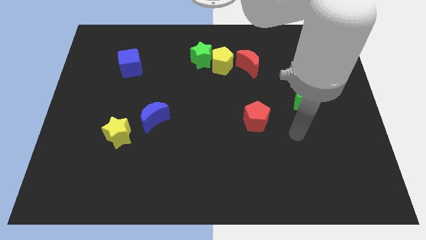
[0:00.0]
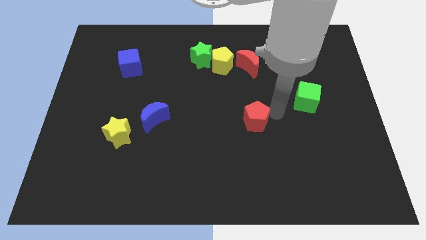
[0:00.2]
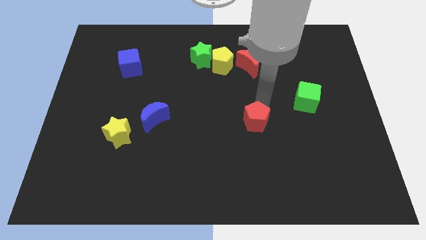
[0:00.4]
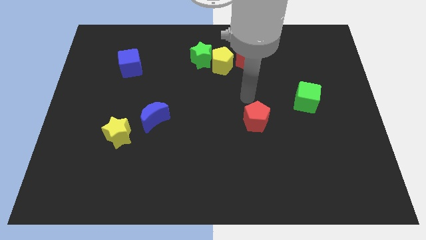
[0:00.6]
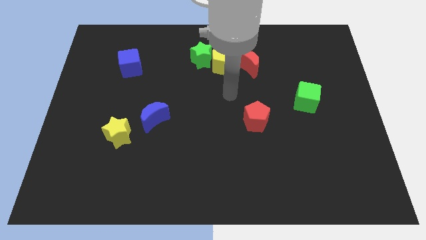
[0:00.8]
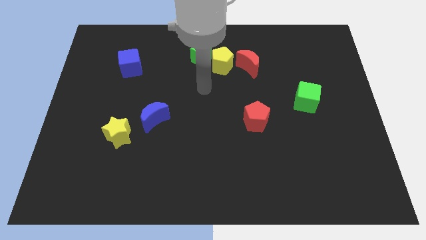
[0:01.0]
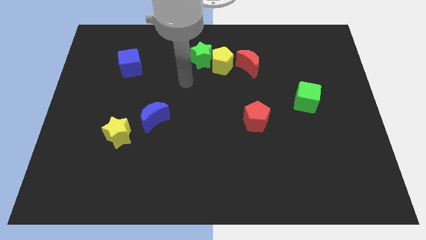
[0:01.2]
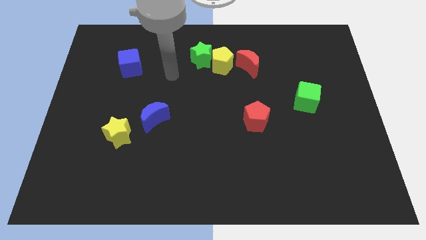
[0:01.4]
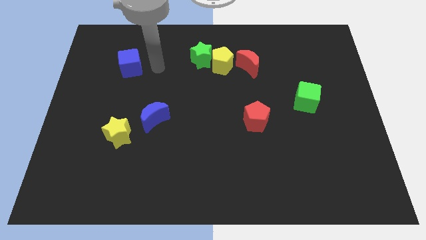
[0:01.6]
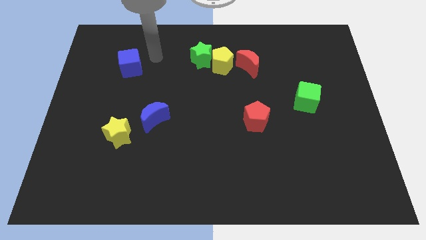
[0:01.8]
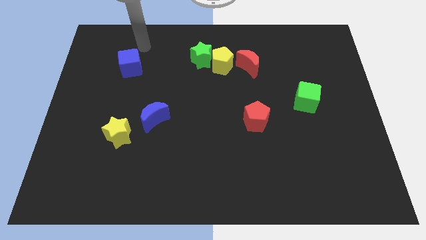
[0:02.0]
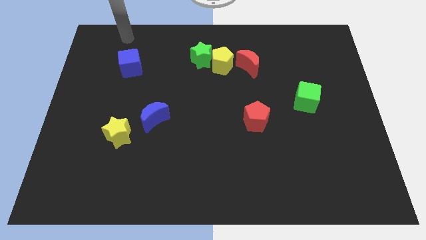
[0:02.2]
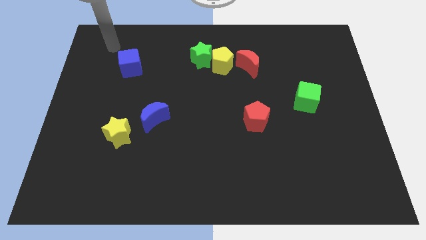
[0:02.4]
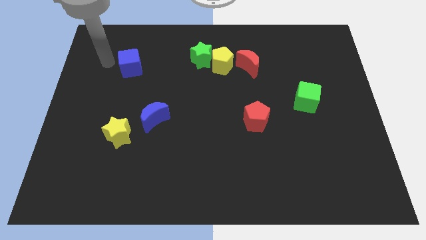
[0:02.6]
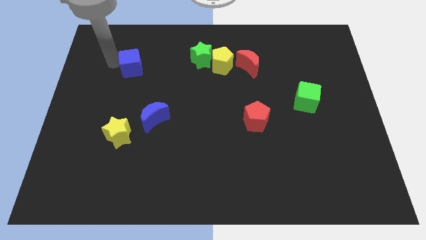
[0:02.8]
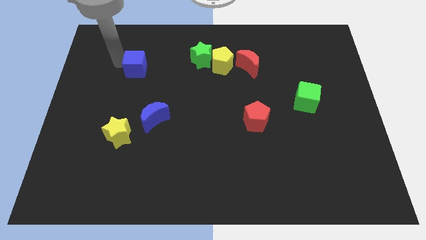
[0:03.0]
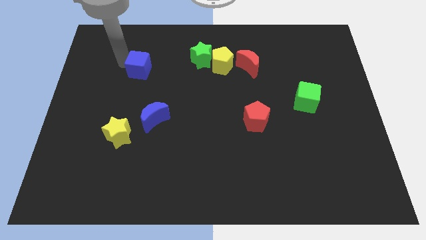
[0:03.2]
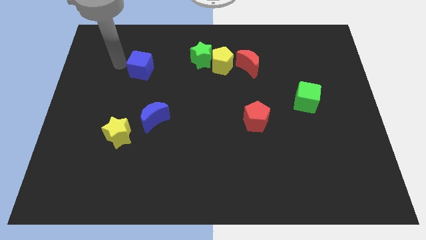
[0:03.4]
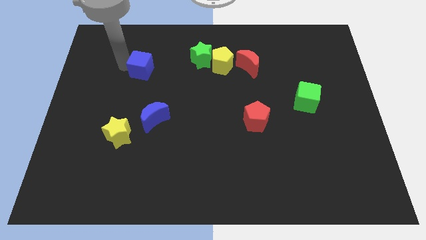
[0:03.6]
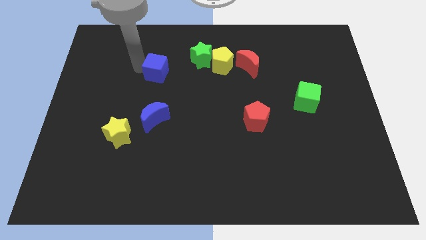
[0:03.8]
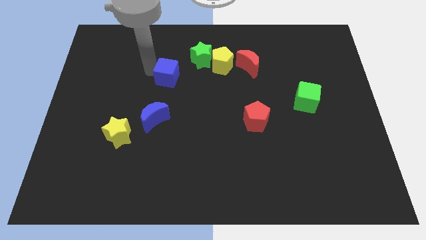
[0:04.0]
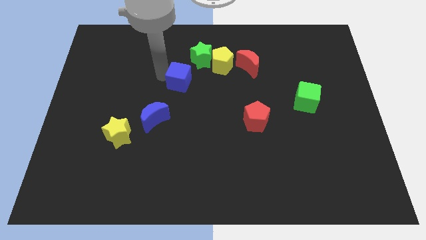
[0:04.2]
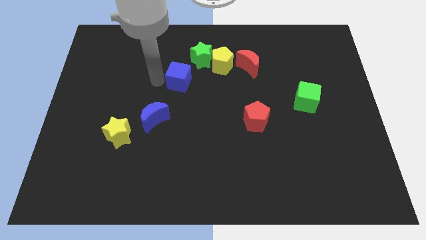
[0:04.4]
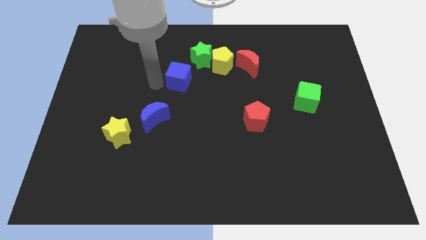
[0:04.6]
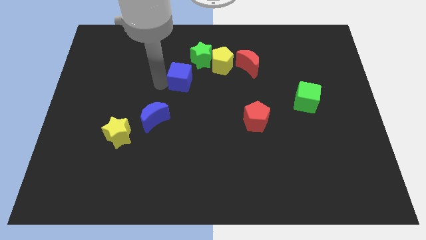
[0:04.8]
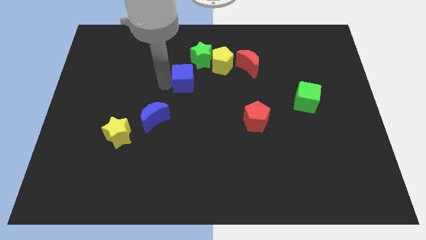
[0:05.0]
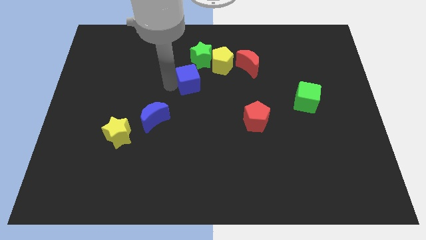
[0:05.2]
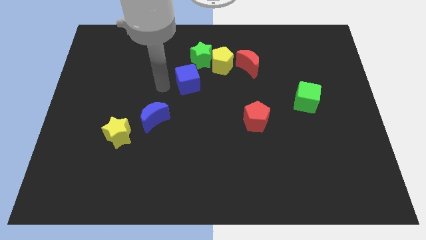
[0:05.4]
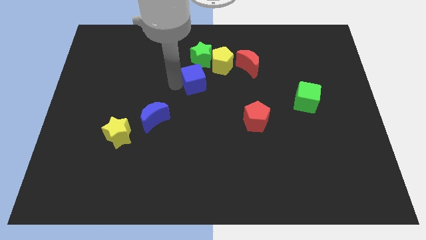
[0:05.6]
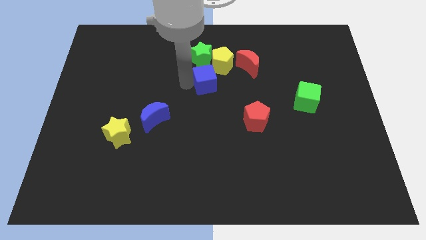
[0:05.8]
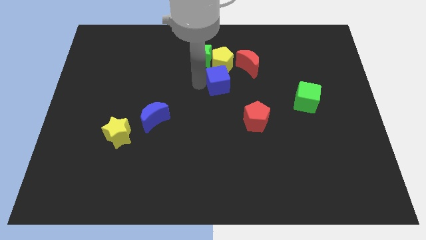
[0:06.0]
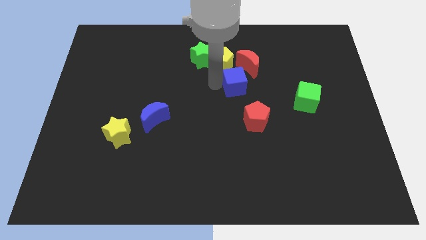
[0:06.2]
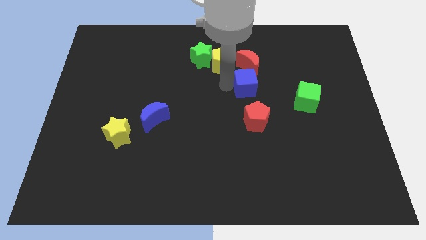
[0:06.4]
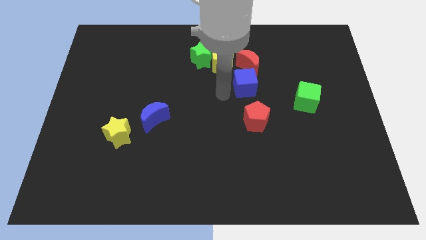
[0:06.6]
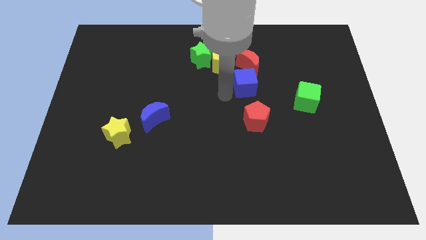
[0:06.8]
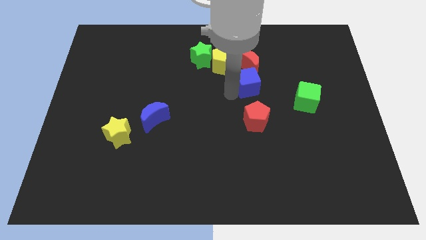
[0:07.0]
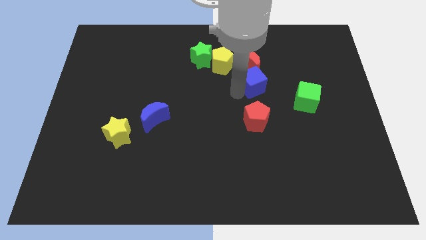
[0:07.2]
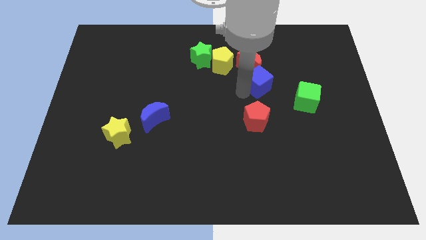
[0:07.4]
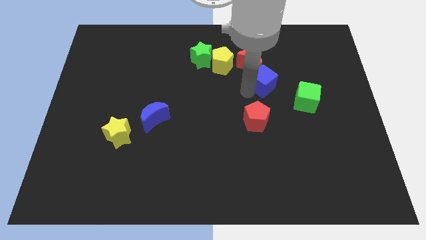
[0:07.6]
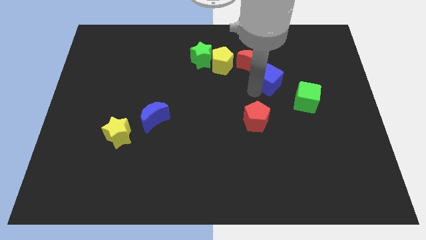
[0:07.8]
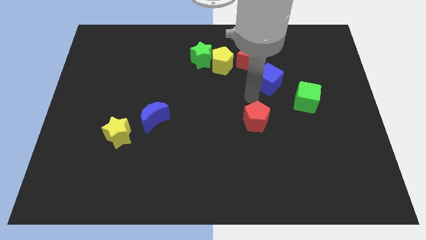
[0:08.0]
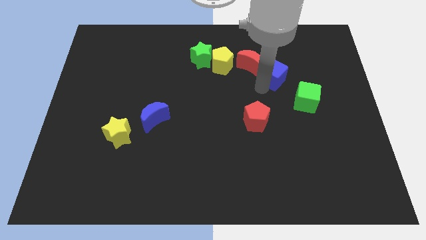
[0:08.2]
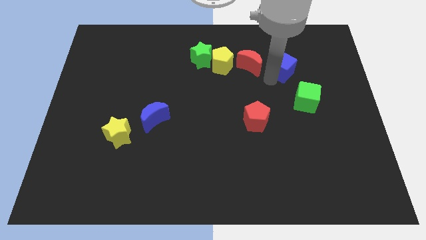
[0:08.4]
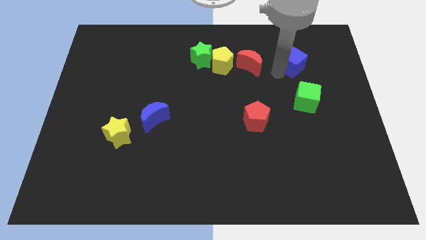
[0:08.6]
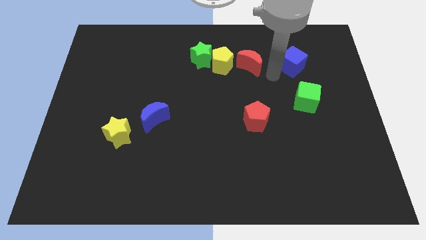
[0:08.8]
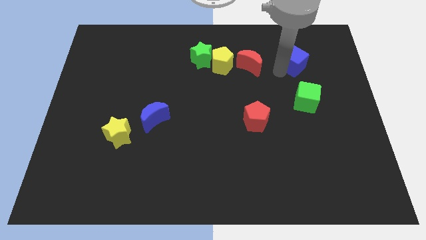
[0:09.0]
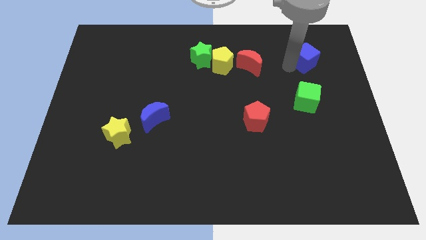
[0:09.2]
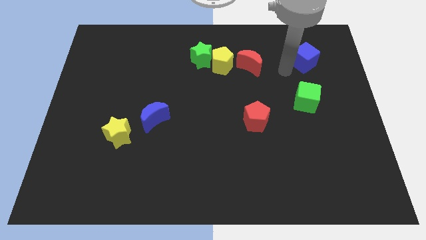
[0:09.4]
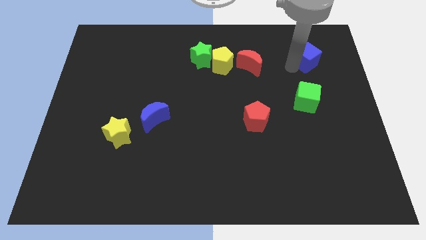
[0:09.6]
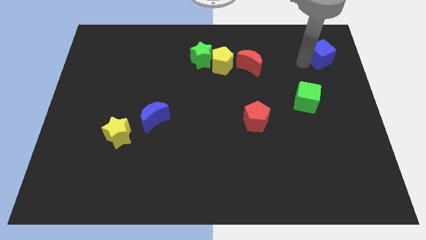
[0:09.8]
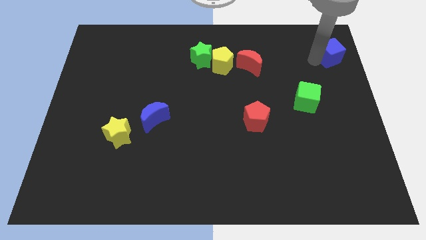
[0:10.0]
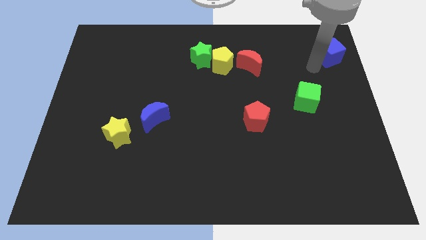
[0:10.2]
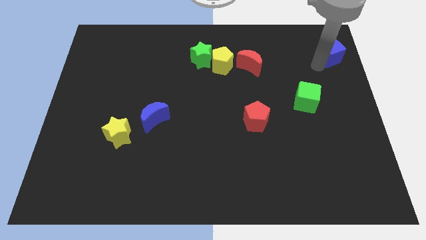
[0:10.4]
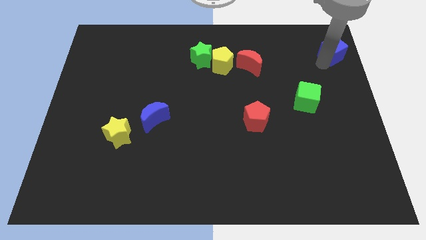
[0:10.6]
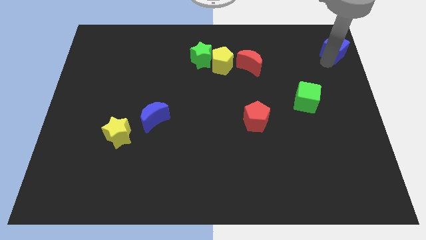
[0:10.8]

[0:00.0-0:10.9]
put the blue cube to the top right of the board

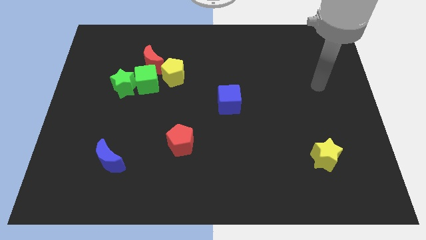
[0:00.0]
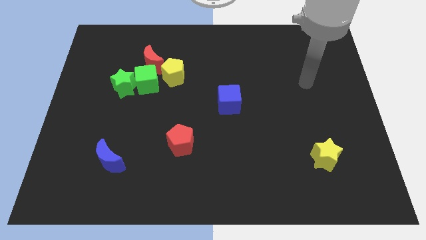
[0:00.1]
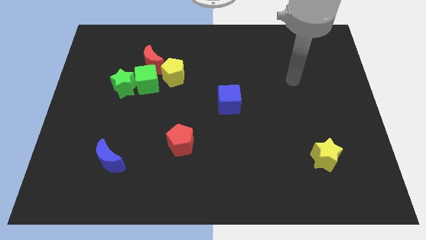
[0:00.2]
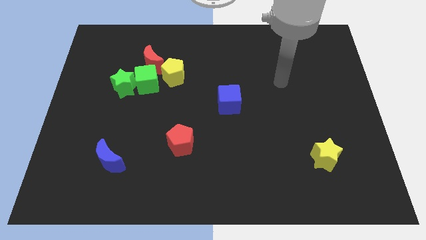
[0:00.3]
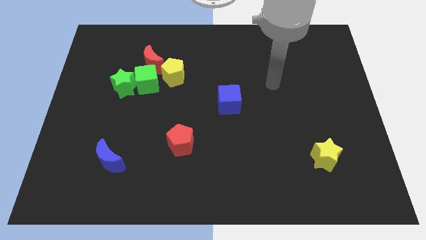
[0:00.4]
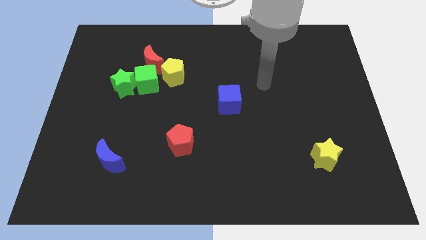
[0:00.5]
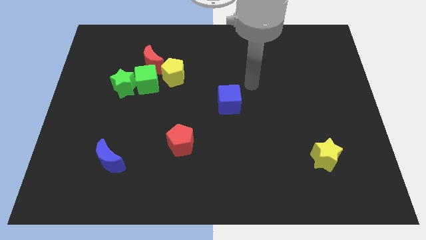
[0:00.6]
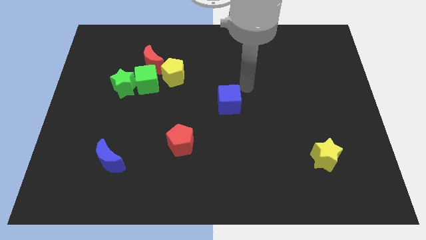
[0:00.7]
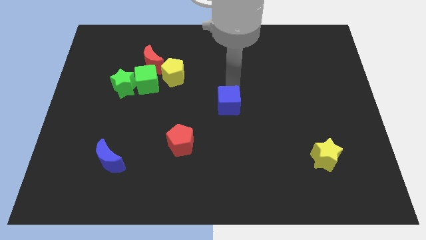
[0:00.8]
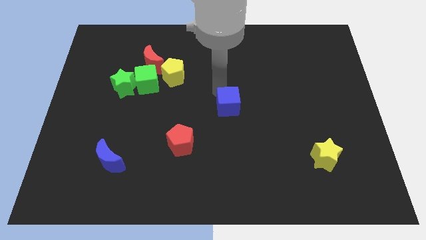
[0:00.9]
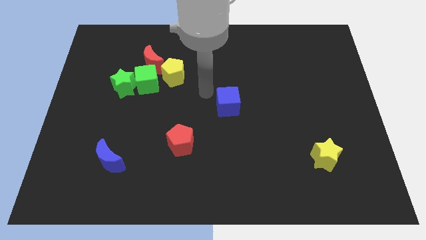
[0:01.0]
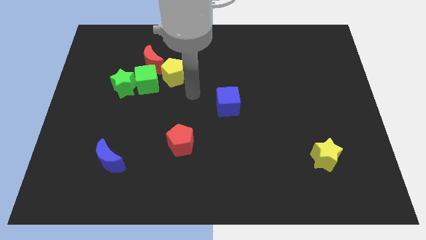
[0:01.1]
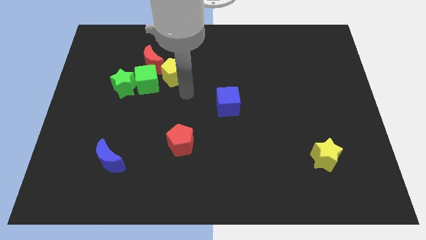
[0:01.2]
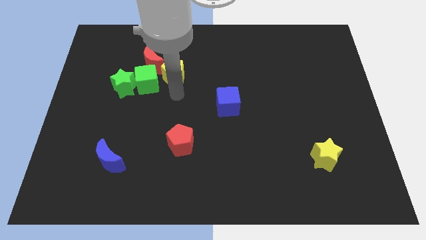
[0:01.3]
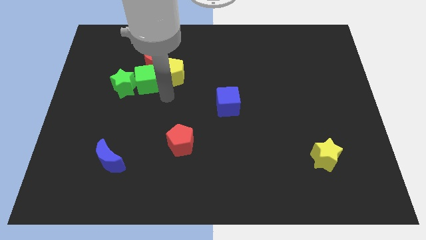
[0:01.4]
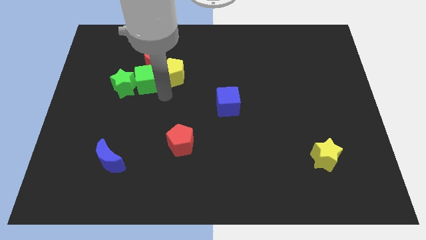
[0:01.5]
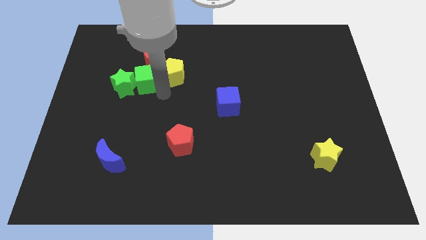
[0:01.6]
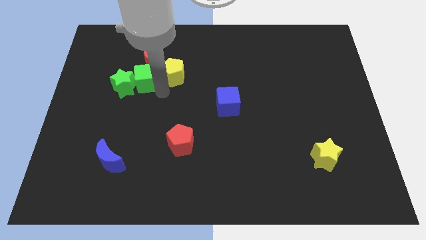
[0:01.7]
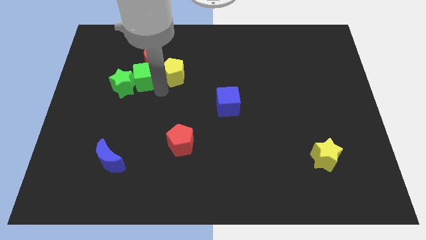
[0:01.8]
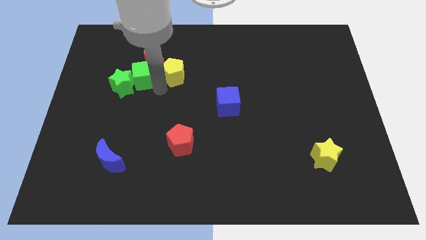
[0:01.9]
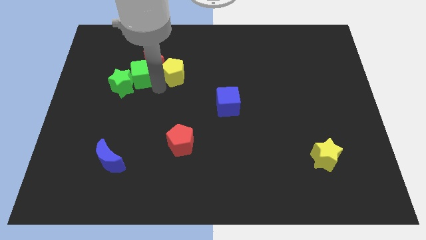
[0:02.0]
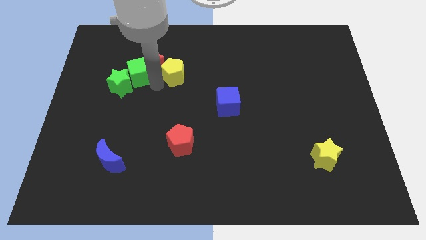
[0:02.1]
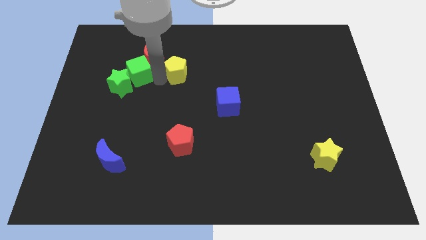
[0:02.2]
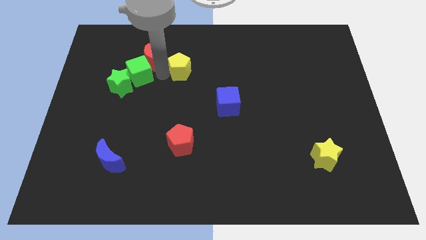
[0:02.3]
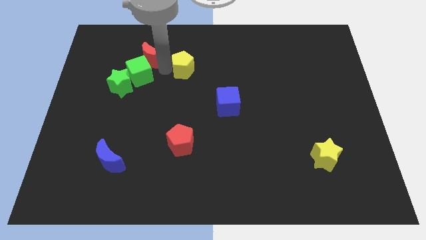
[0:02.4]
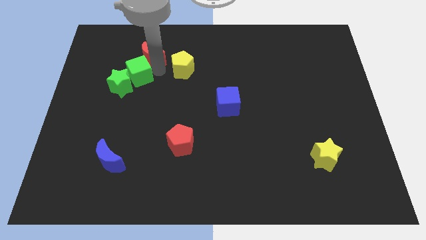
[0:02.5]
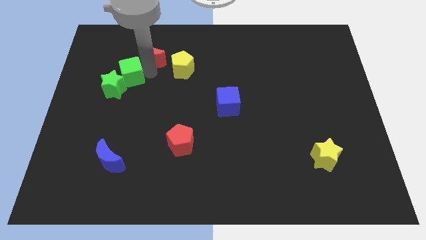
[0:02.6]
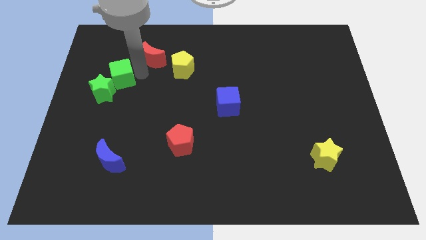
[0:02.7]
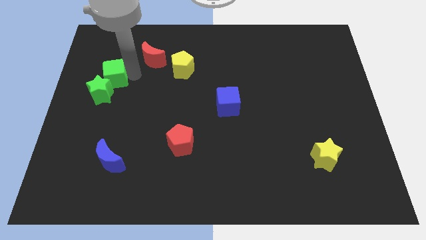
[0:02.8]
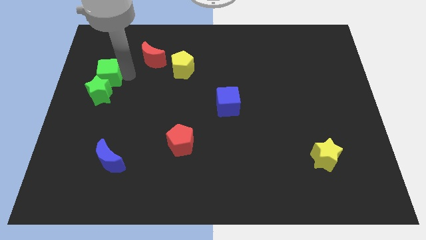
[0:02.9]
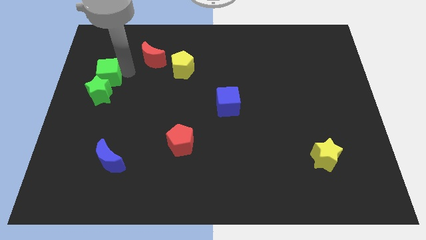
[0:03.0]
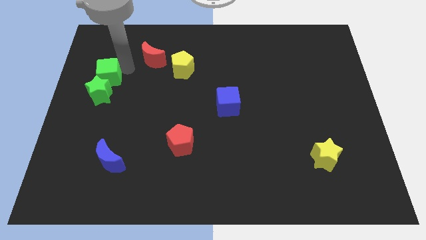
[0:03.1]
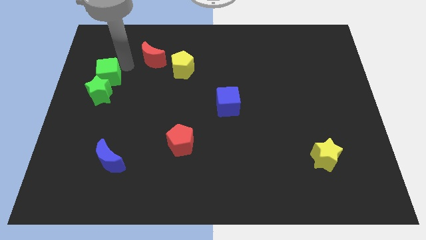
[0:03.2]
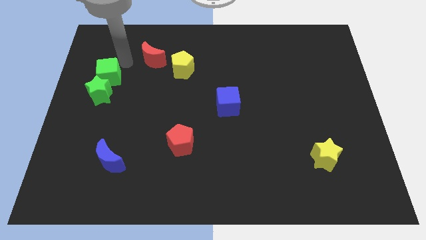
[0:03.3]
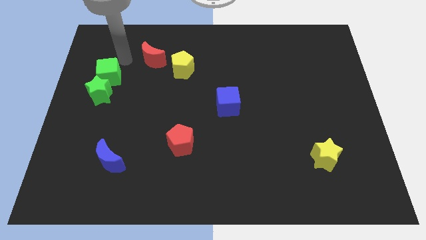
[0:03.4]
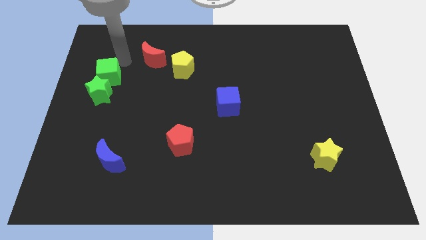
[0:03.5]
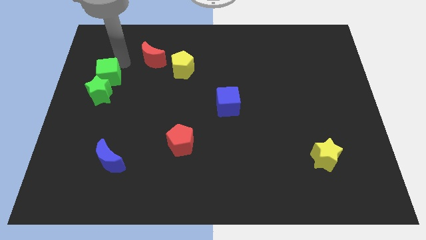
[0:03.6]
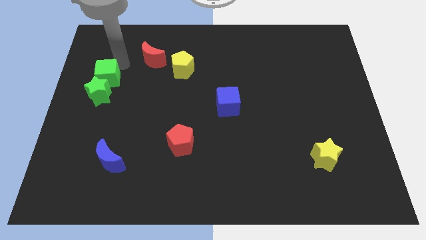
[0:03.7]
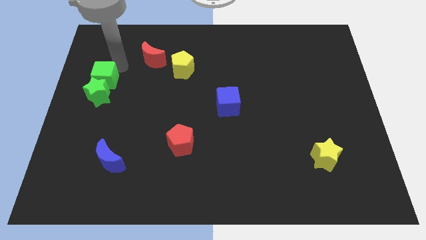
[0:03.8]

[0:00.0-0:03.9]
push the green cube to the left side of the board
